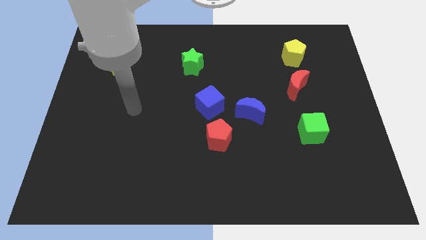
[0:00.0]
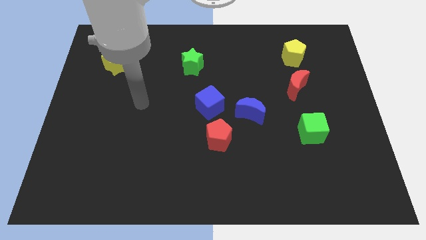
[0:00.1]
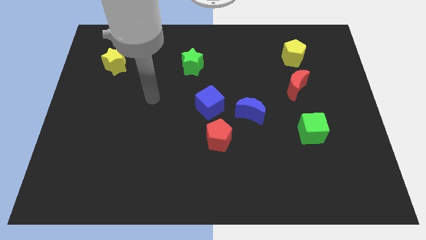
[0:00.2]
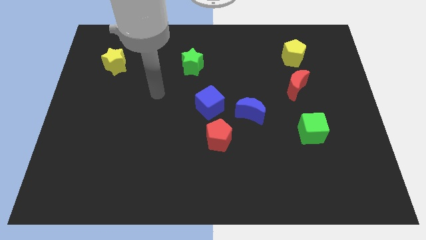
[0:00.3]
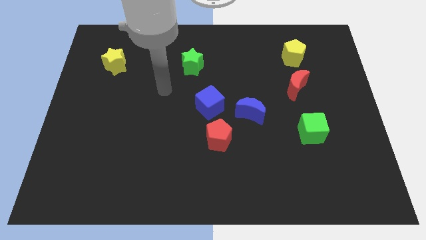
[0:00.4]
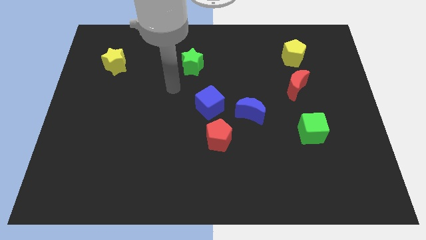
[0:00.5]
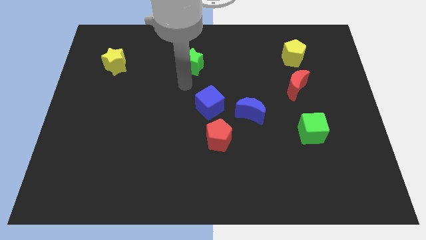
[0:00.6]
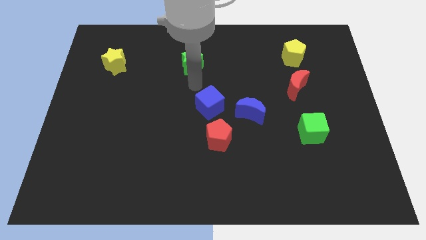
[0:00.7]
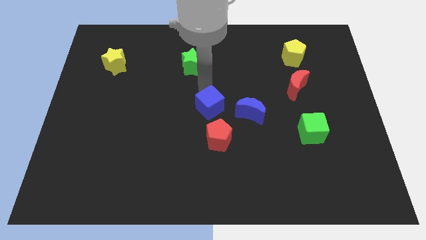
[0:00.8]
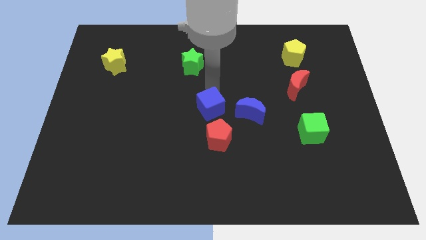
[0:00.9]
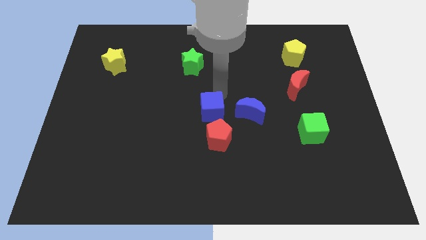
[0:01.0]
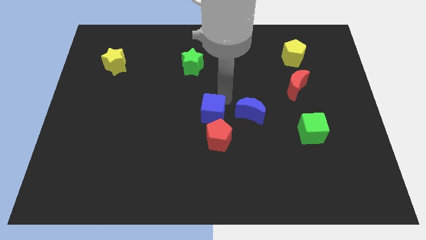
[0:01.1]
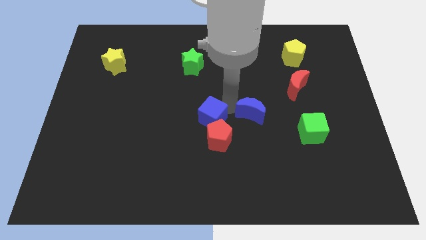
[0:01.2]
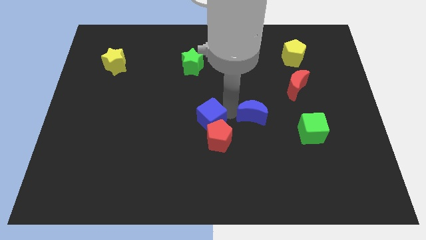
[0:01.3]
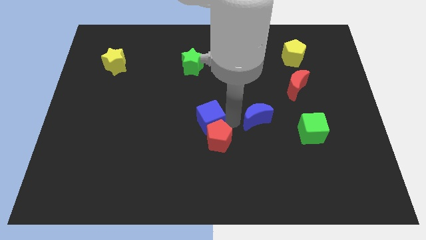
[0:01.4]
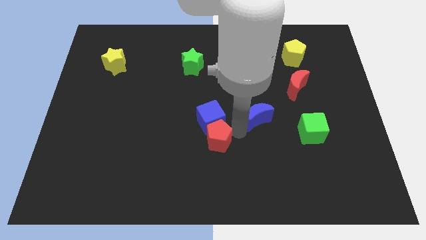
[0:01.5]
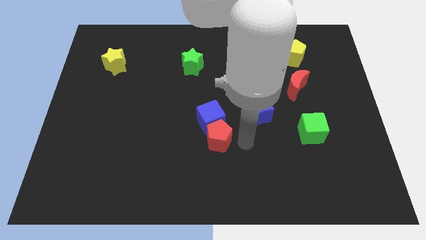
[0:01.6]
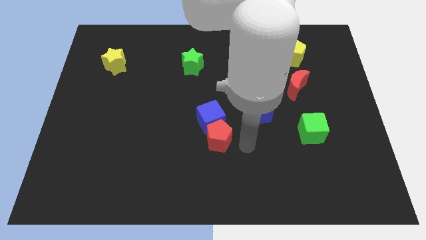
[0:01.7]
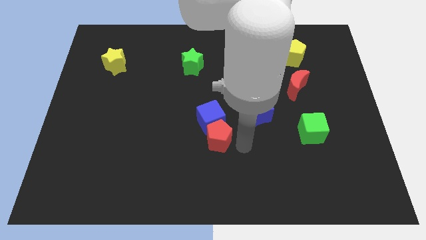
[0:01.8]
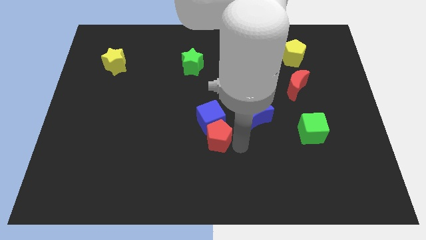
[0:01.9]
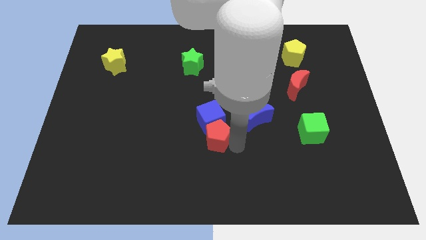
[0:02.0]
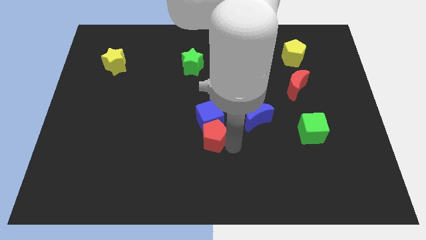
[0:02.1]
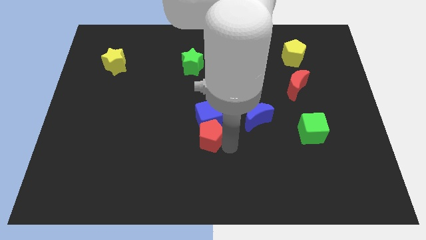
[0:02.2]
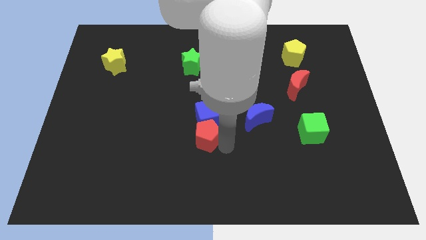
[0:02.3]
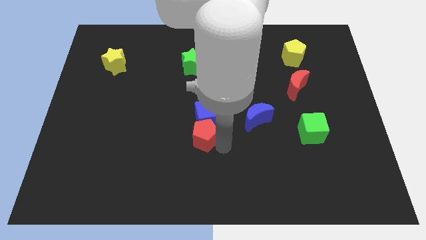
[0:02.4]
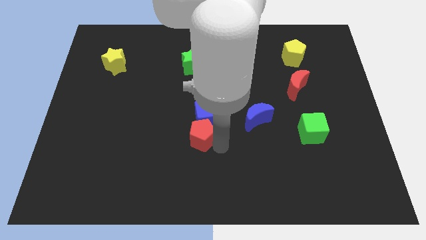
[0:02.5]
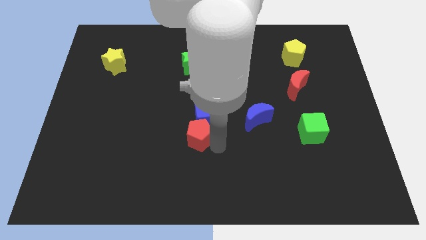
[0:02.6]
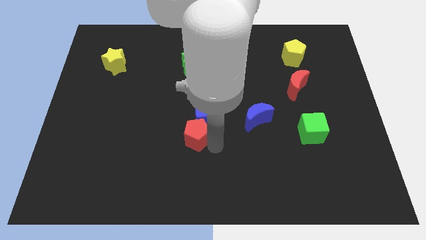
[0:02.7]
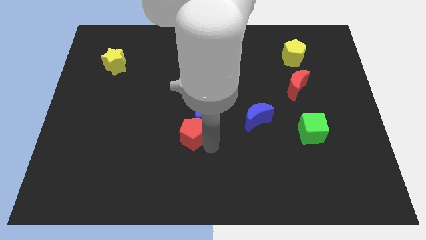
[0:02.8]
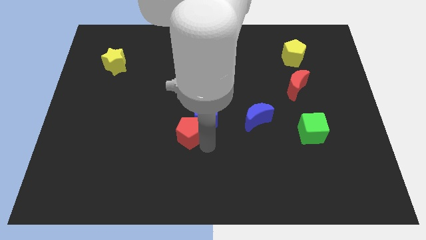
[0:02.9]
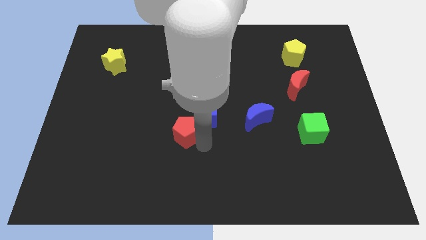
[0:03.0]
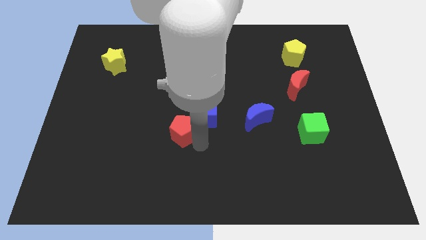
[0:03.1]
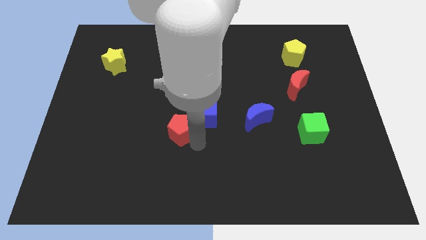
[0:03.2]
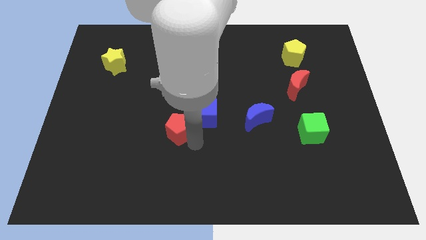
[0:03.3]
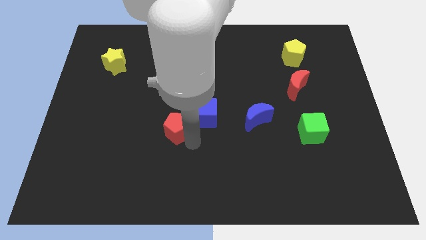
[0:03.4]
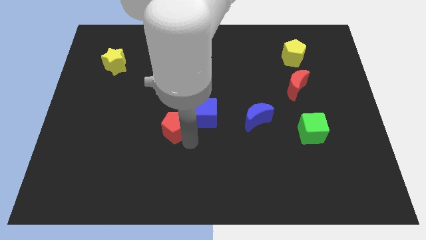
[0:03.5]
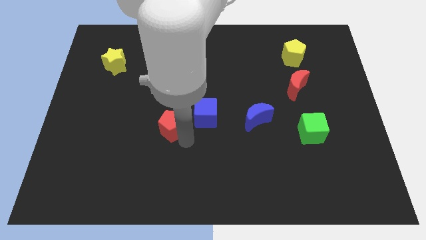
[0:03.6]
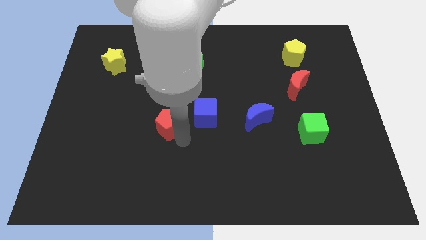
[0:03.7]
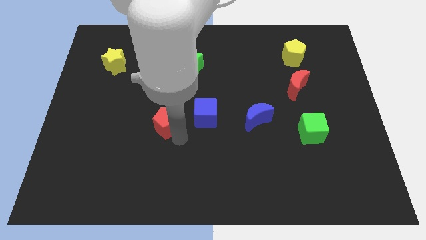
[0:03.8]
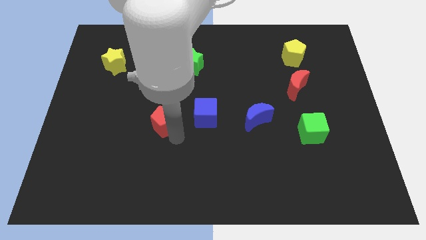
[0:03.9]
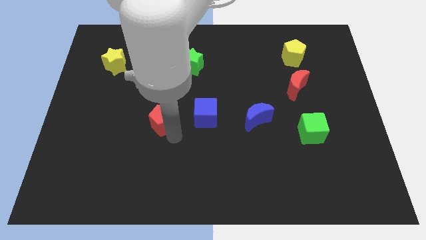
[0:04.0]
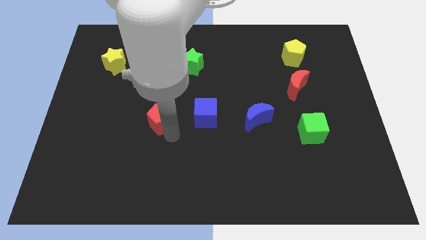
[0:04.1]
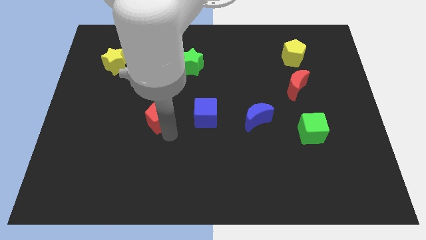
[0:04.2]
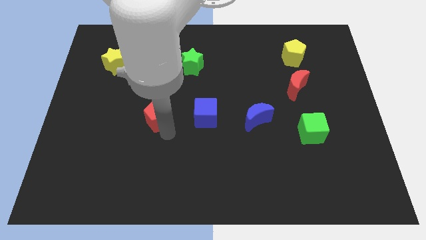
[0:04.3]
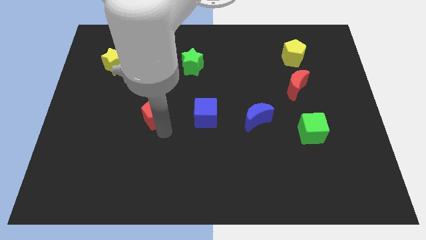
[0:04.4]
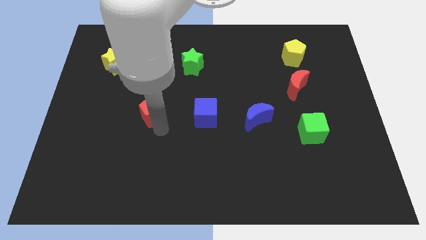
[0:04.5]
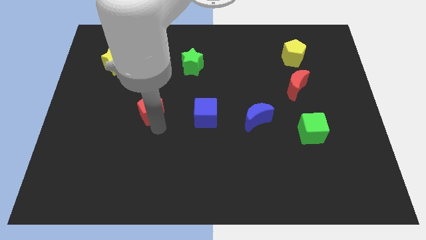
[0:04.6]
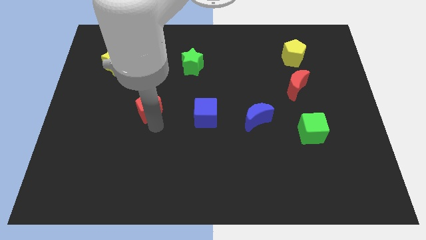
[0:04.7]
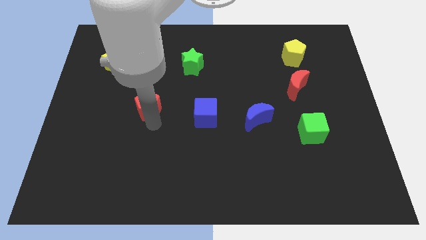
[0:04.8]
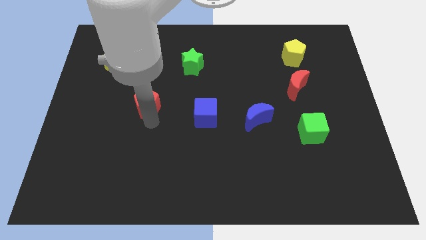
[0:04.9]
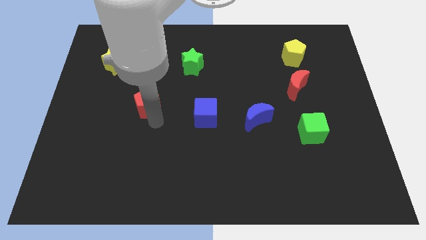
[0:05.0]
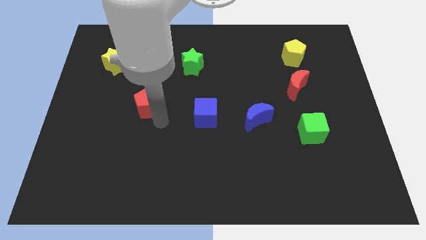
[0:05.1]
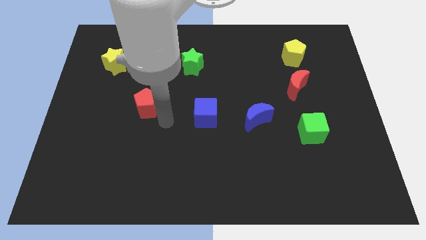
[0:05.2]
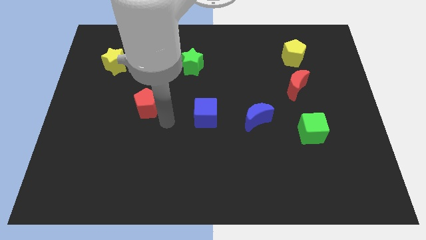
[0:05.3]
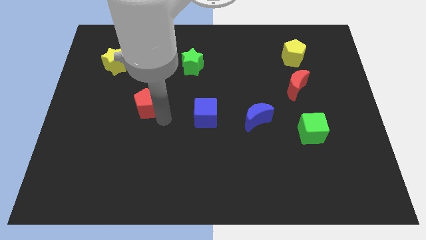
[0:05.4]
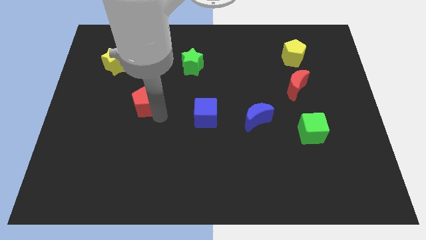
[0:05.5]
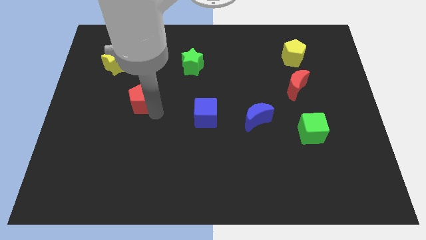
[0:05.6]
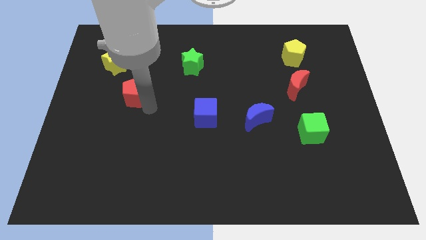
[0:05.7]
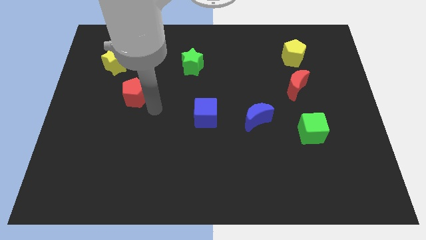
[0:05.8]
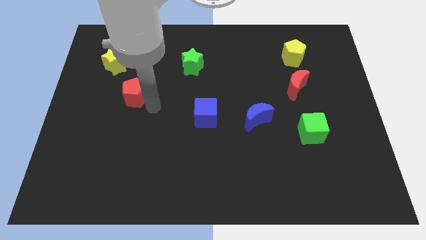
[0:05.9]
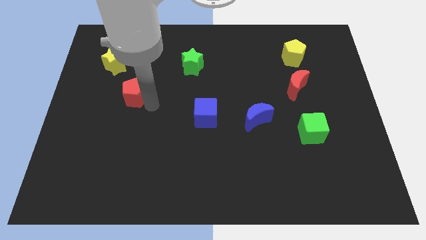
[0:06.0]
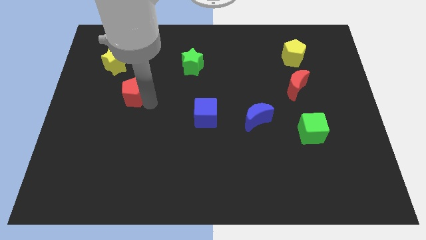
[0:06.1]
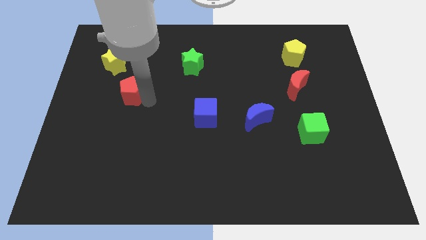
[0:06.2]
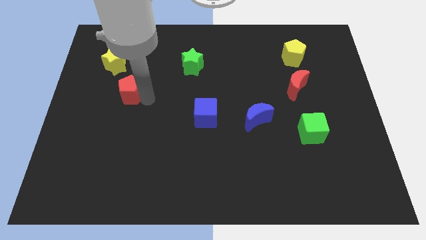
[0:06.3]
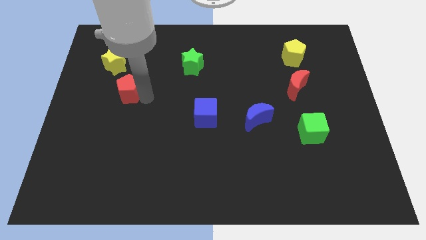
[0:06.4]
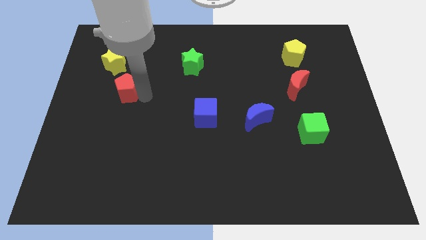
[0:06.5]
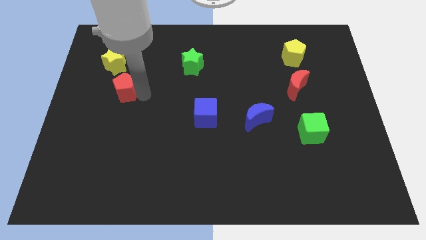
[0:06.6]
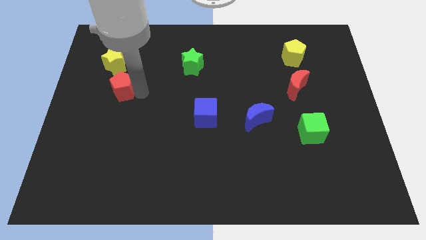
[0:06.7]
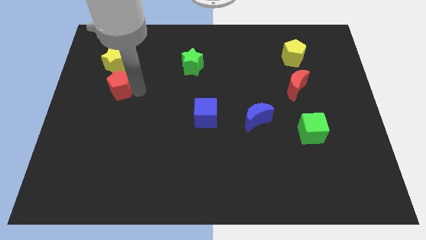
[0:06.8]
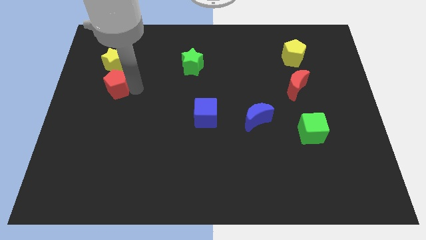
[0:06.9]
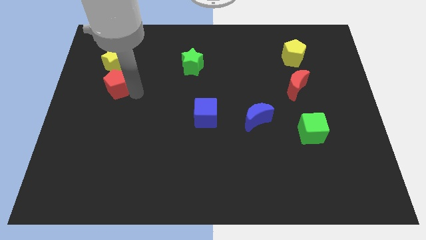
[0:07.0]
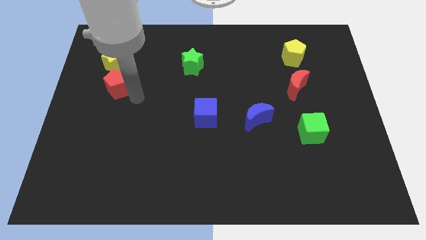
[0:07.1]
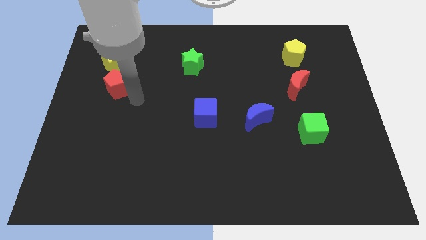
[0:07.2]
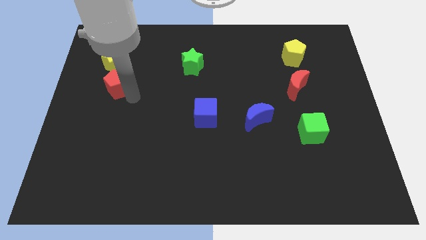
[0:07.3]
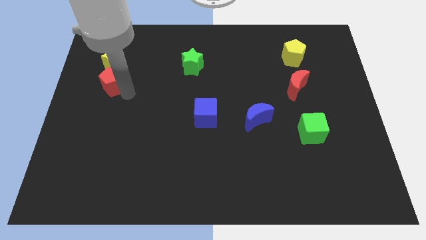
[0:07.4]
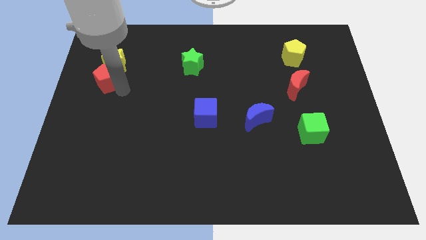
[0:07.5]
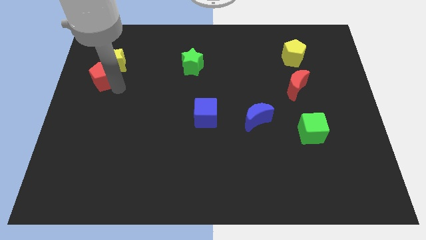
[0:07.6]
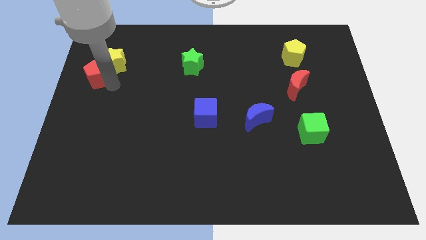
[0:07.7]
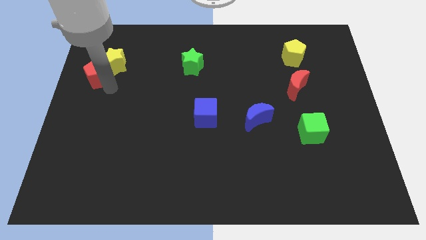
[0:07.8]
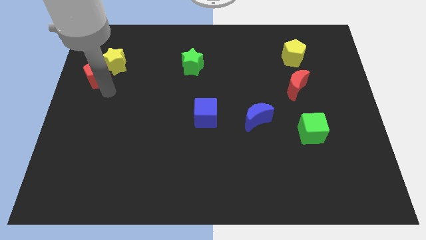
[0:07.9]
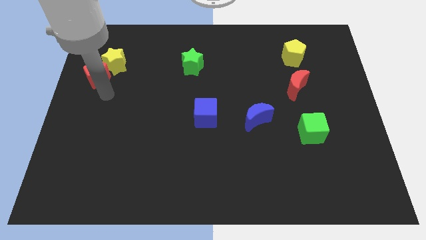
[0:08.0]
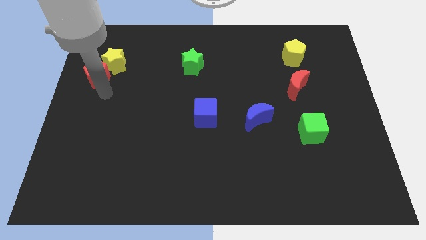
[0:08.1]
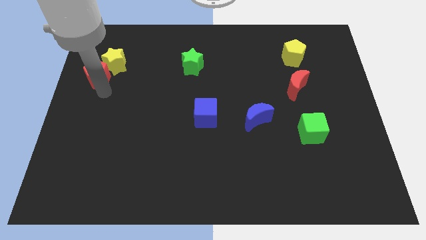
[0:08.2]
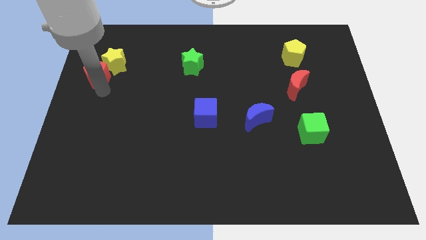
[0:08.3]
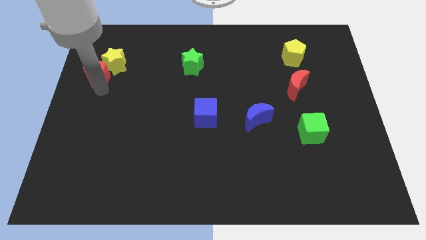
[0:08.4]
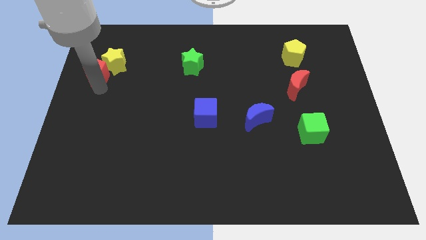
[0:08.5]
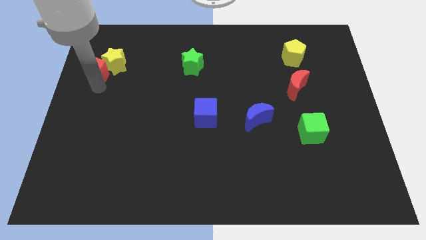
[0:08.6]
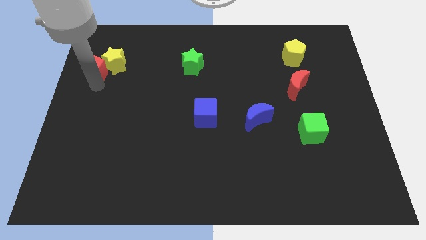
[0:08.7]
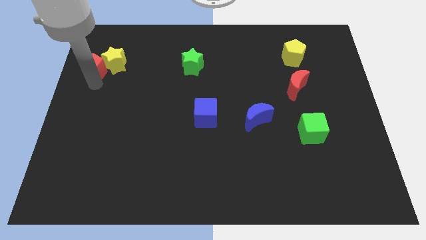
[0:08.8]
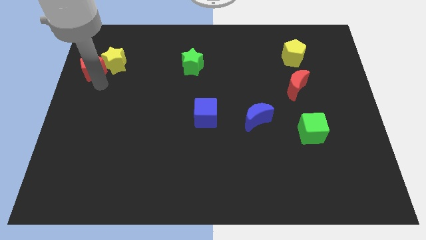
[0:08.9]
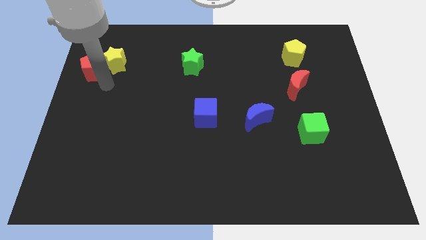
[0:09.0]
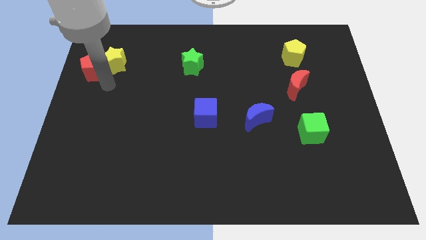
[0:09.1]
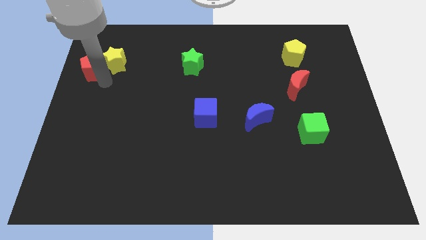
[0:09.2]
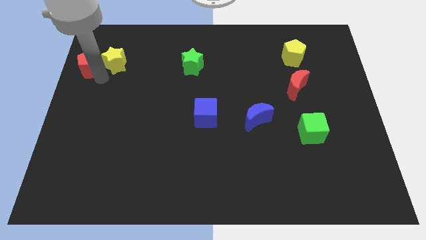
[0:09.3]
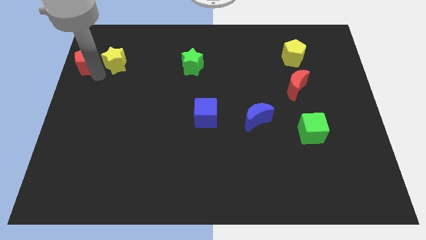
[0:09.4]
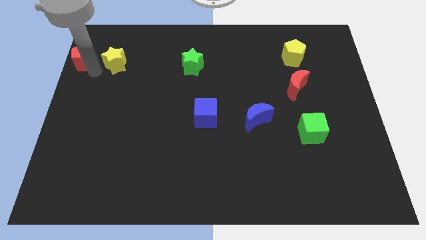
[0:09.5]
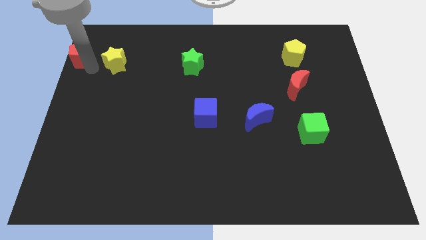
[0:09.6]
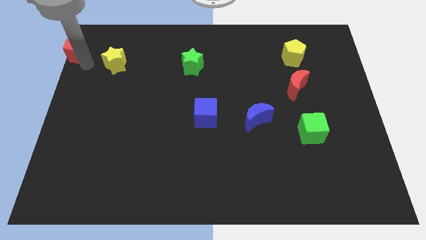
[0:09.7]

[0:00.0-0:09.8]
slide the red pentagon to the top left
